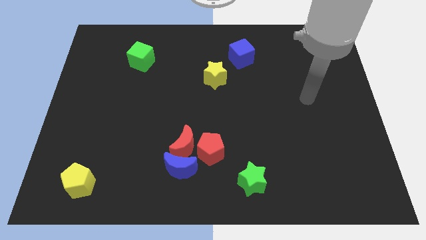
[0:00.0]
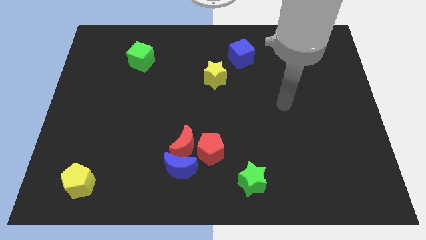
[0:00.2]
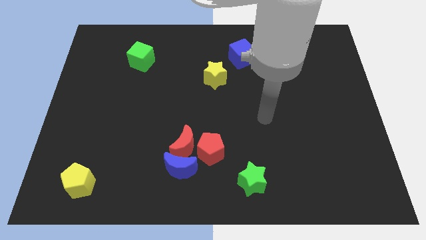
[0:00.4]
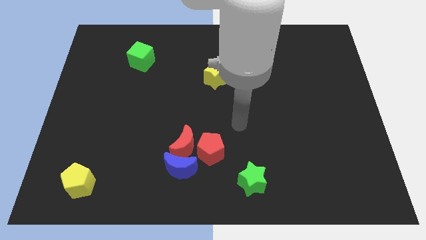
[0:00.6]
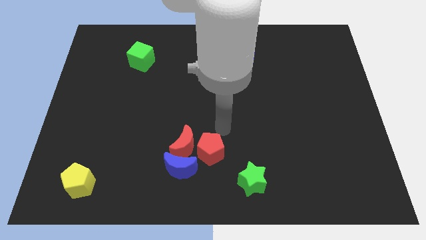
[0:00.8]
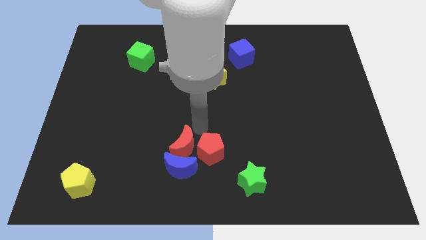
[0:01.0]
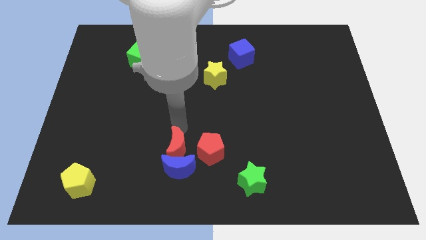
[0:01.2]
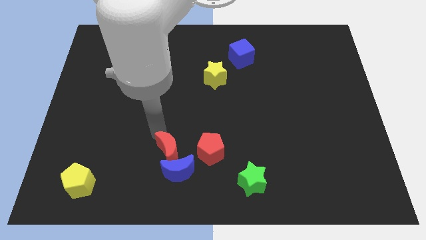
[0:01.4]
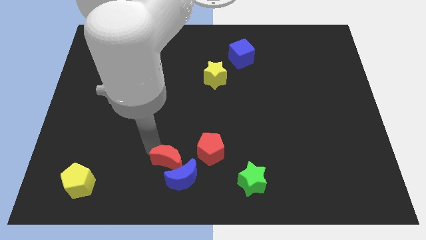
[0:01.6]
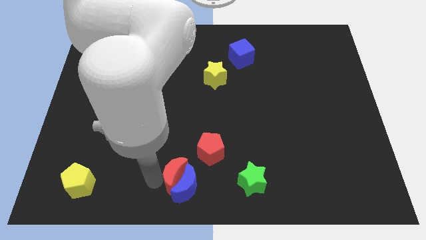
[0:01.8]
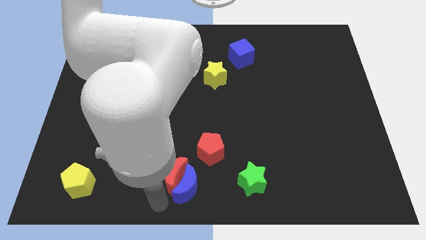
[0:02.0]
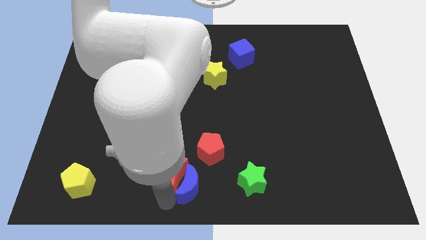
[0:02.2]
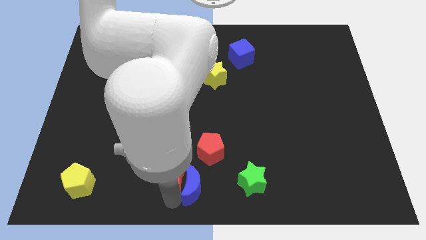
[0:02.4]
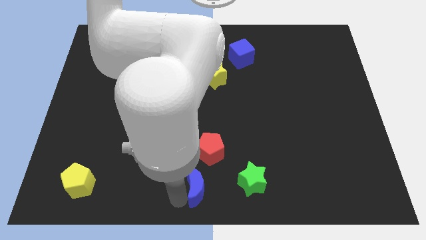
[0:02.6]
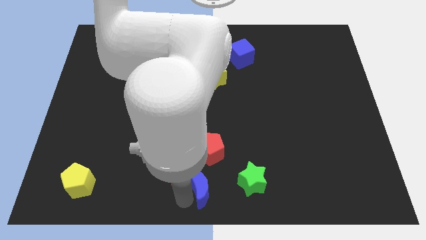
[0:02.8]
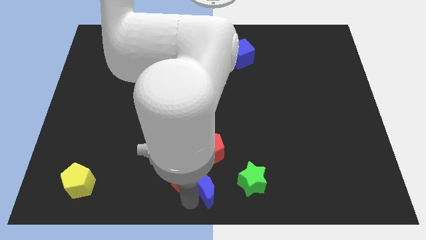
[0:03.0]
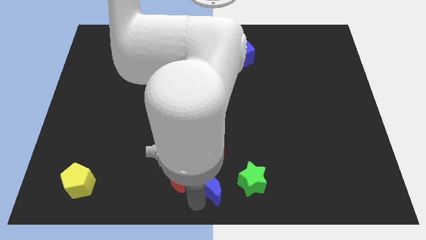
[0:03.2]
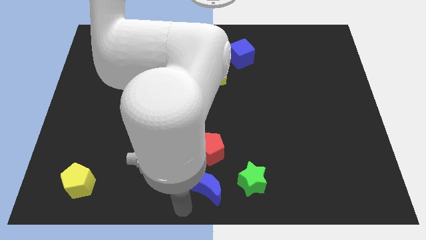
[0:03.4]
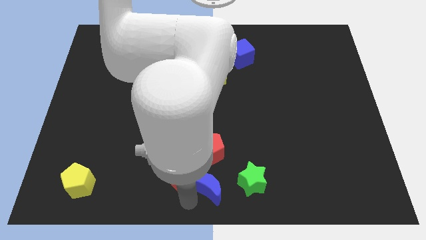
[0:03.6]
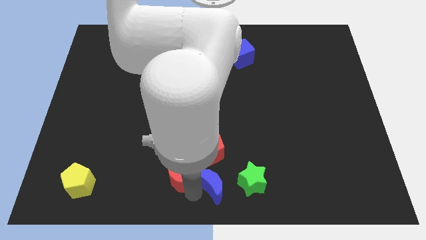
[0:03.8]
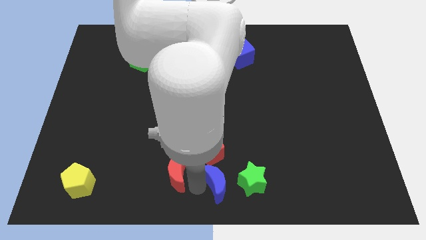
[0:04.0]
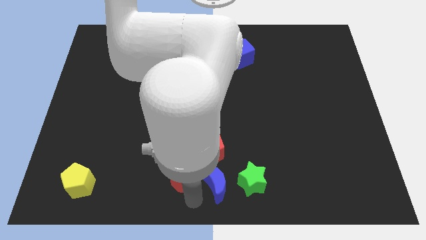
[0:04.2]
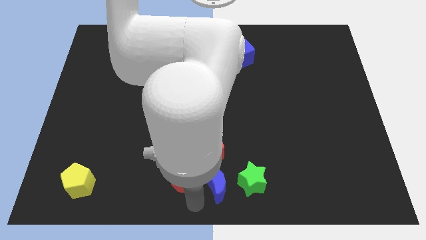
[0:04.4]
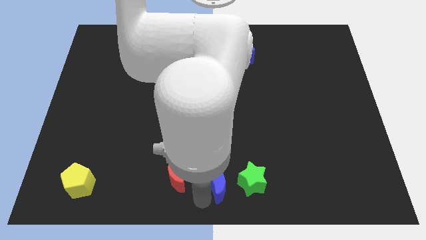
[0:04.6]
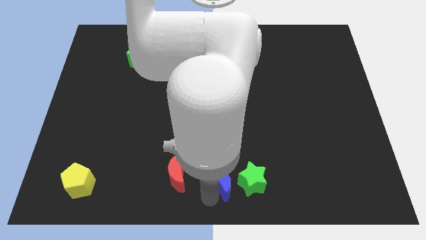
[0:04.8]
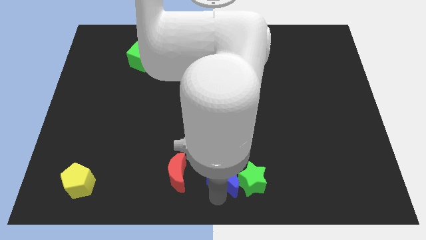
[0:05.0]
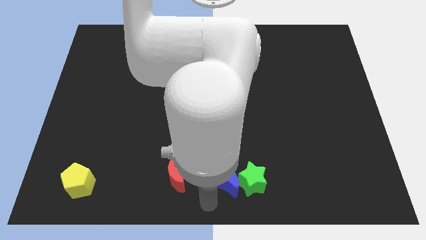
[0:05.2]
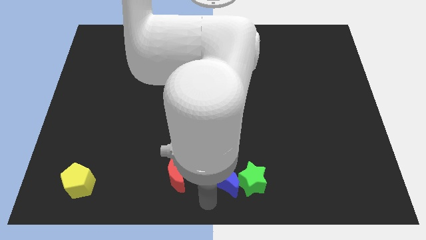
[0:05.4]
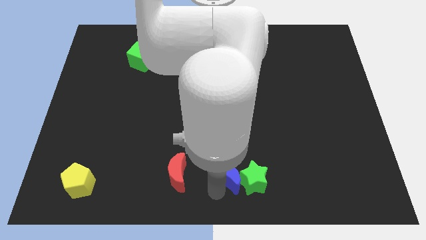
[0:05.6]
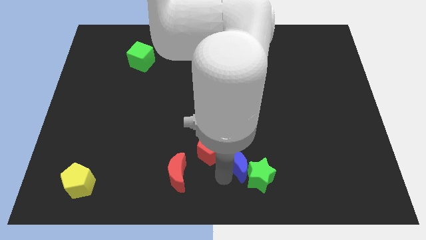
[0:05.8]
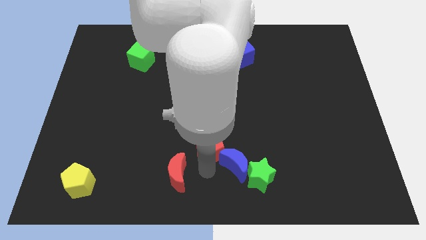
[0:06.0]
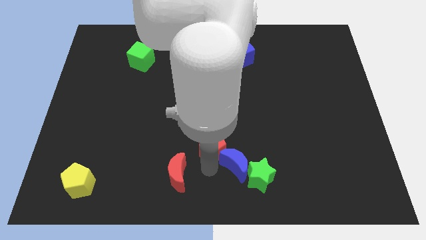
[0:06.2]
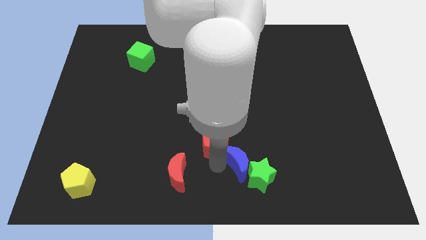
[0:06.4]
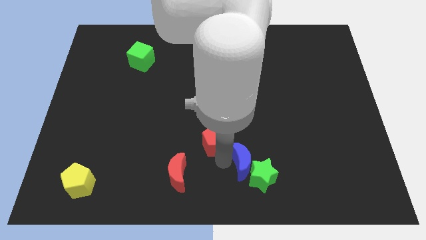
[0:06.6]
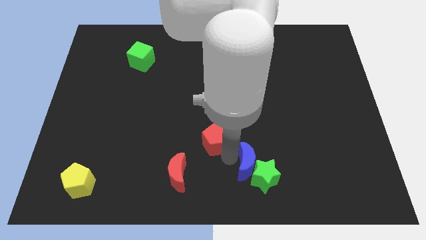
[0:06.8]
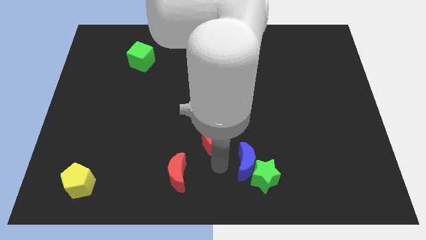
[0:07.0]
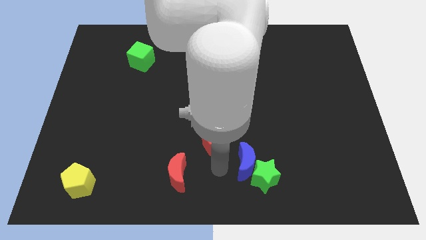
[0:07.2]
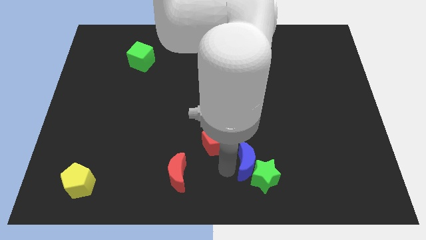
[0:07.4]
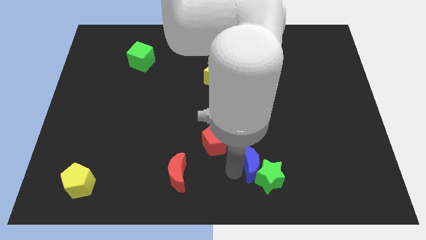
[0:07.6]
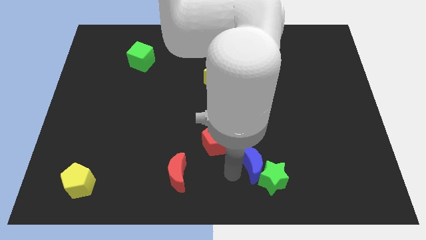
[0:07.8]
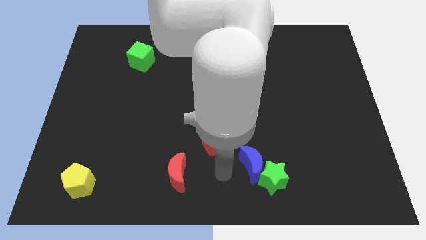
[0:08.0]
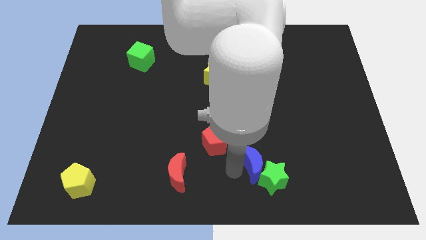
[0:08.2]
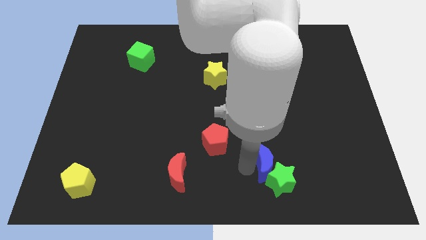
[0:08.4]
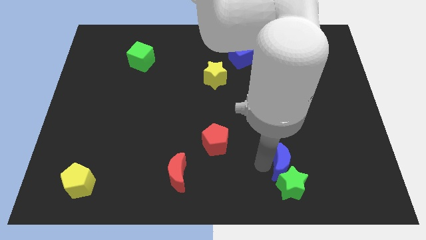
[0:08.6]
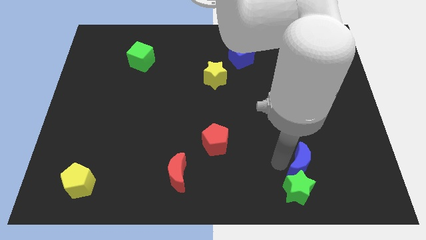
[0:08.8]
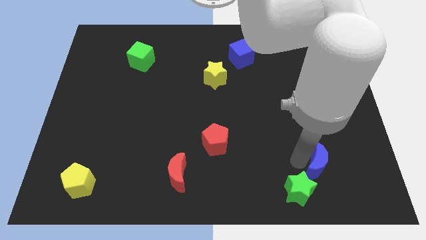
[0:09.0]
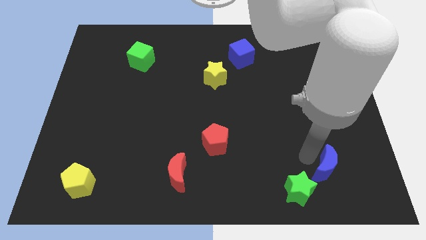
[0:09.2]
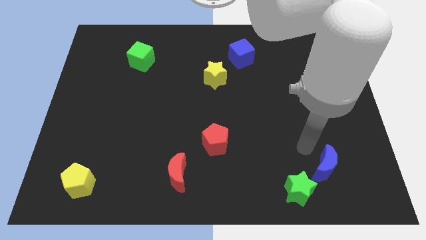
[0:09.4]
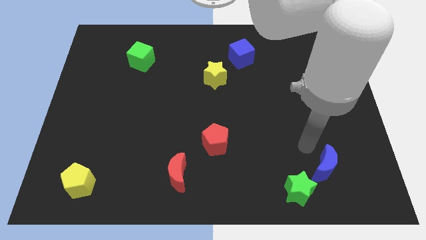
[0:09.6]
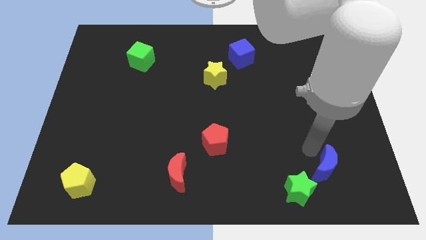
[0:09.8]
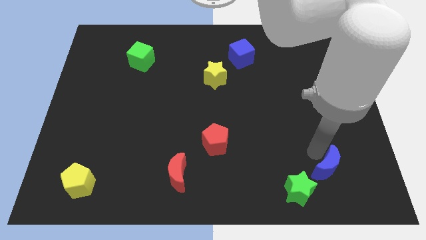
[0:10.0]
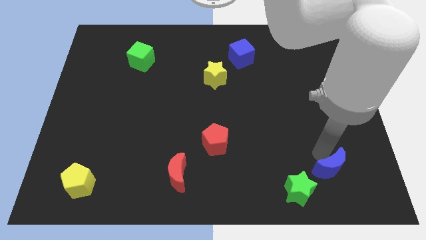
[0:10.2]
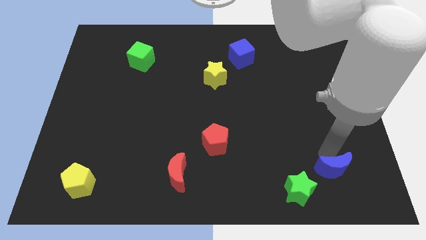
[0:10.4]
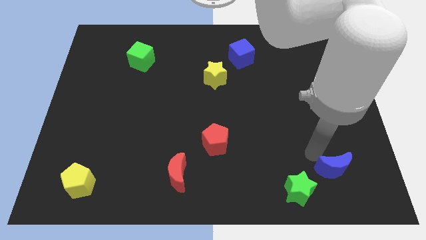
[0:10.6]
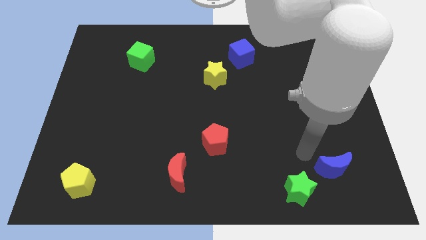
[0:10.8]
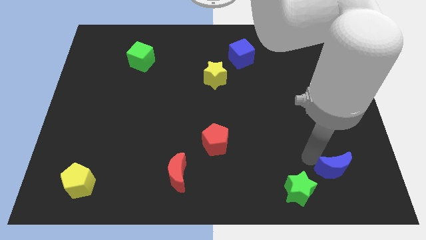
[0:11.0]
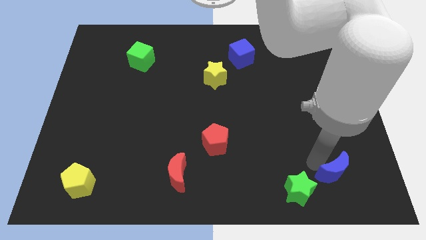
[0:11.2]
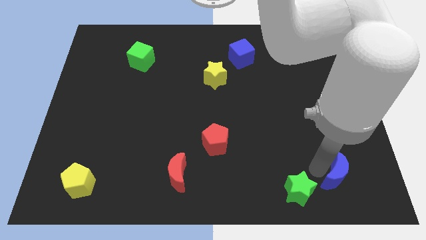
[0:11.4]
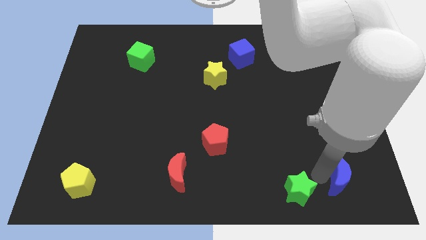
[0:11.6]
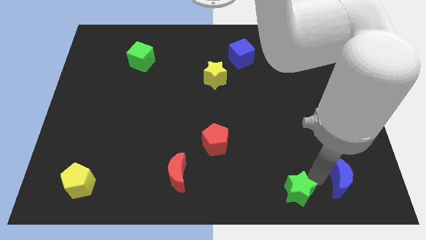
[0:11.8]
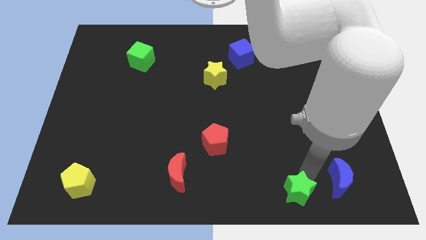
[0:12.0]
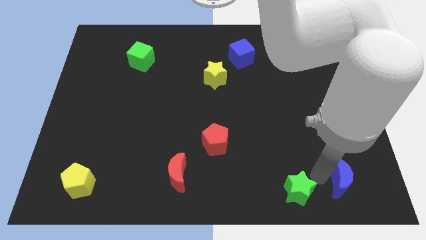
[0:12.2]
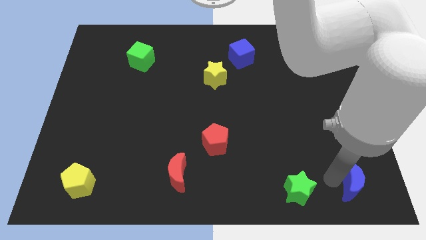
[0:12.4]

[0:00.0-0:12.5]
slide the blue moon to the bottom right
